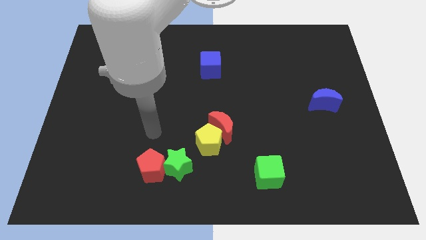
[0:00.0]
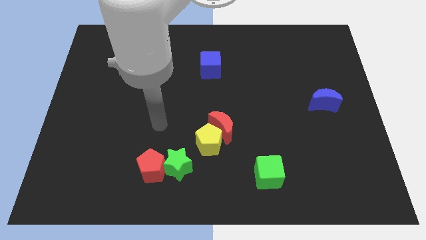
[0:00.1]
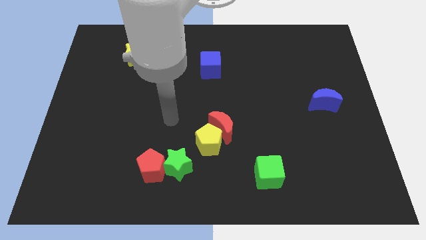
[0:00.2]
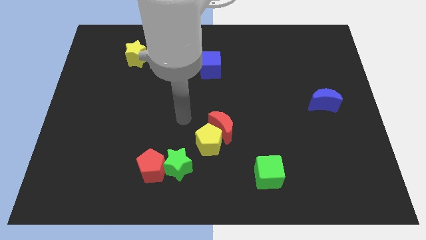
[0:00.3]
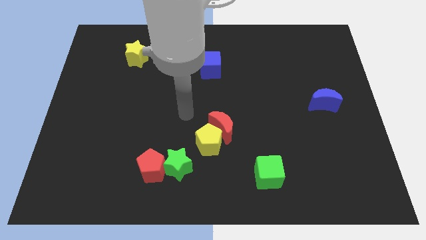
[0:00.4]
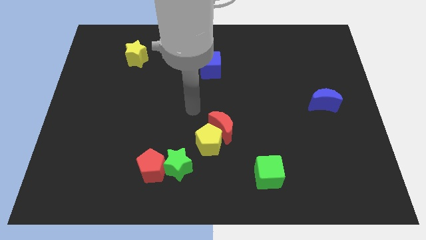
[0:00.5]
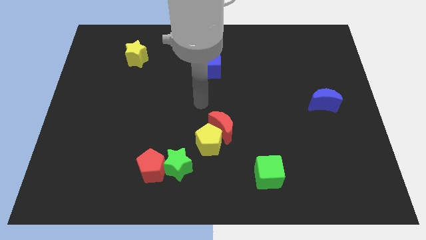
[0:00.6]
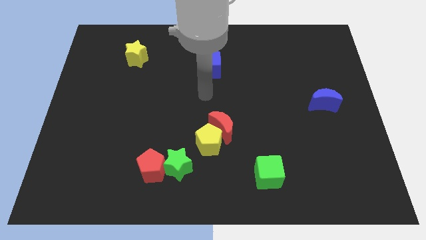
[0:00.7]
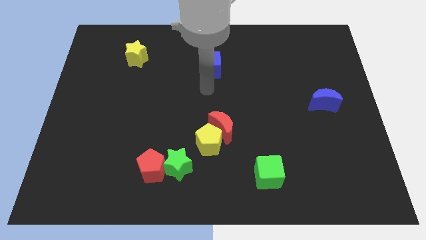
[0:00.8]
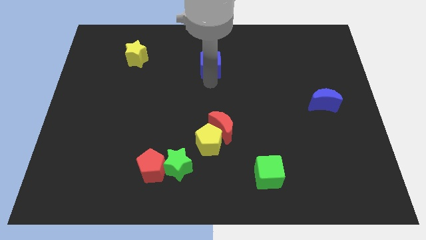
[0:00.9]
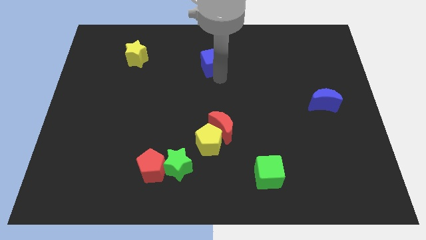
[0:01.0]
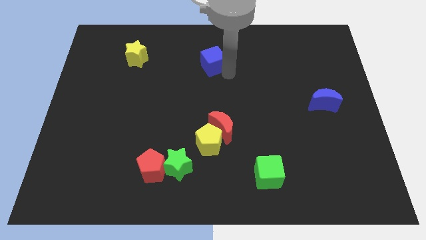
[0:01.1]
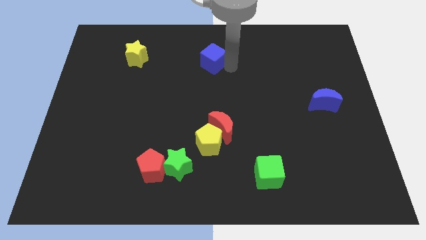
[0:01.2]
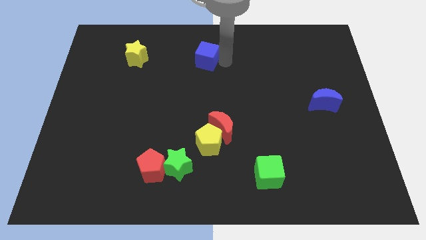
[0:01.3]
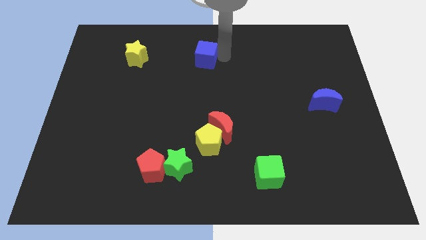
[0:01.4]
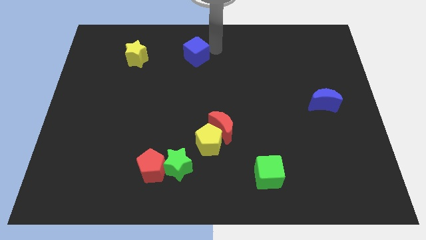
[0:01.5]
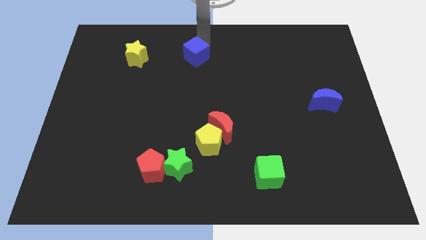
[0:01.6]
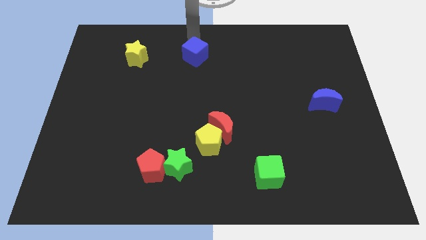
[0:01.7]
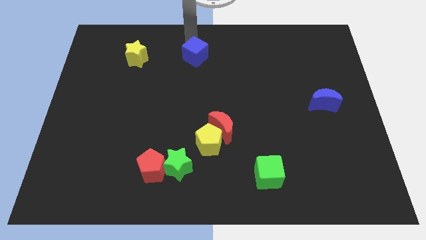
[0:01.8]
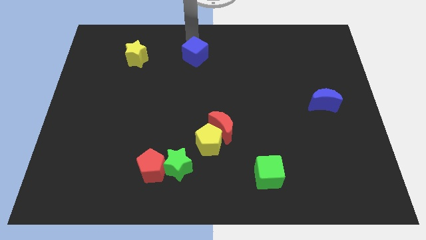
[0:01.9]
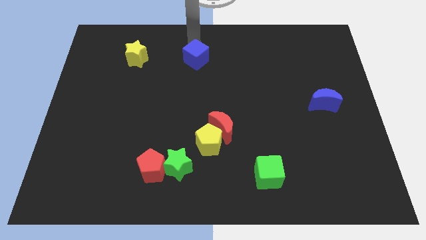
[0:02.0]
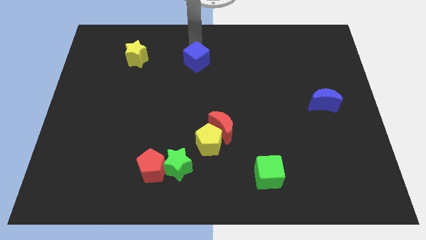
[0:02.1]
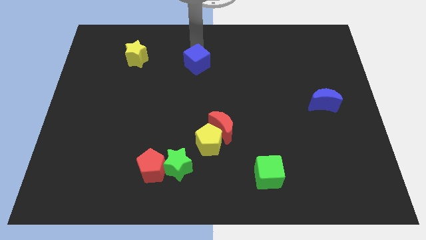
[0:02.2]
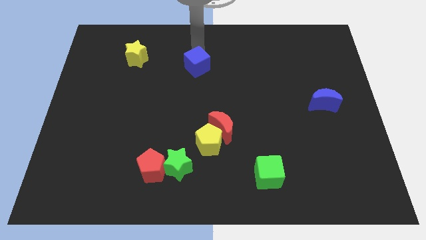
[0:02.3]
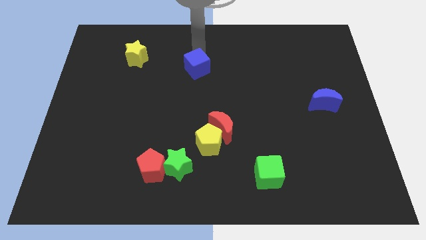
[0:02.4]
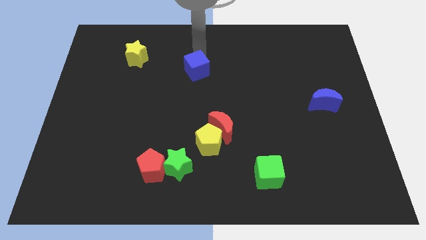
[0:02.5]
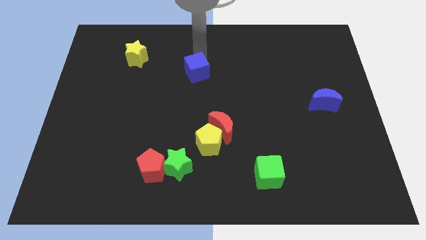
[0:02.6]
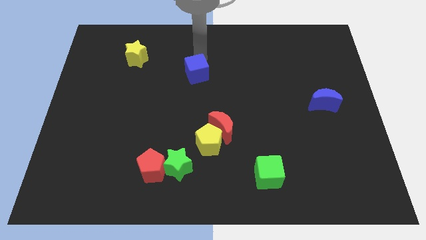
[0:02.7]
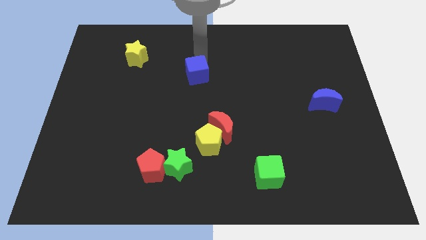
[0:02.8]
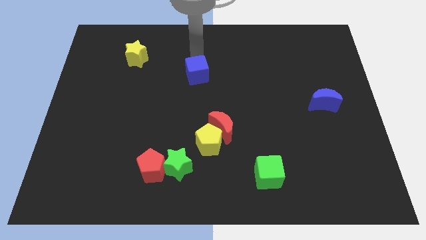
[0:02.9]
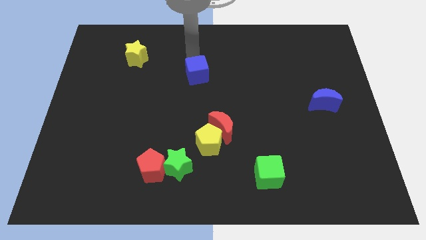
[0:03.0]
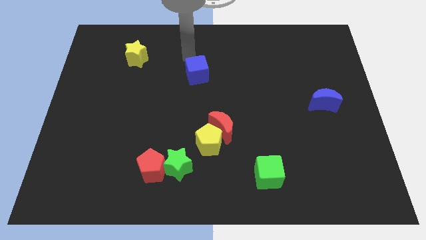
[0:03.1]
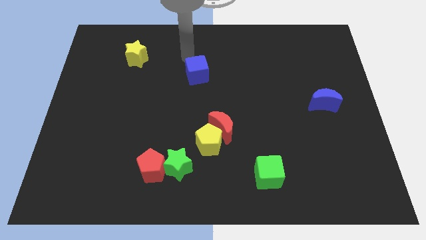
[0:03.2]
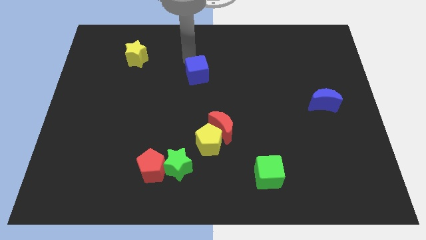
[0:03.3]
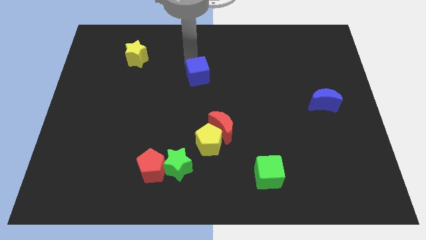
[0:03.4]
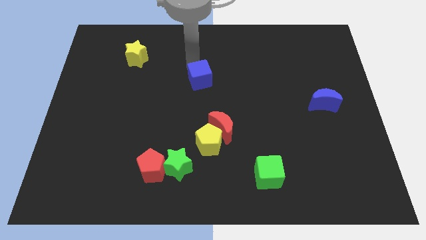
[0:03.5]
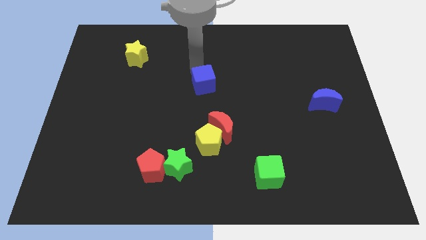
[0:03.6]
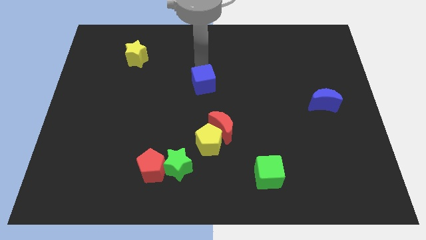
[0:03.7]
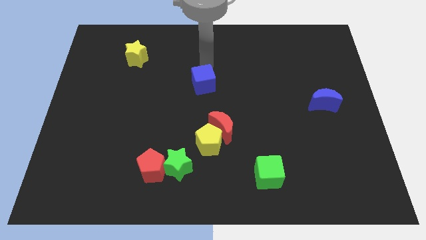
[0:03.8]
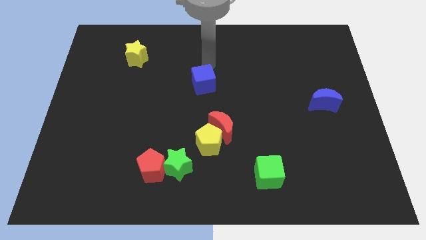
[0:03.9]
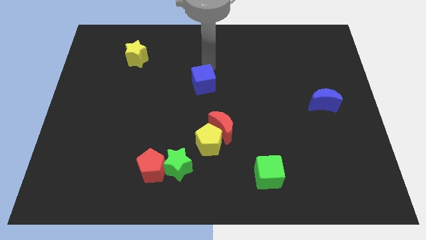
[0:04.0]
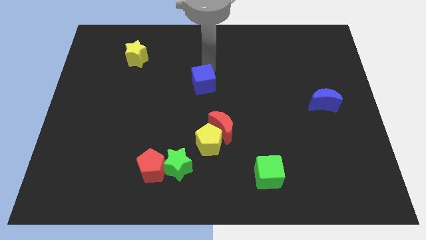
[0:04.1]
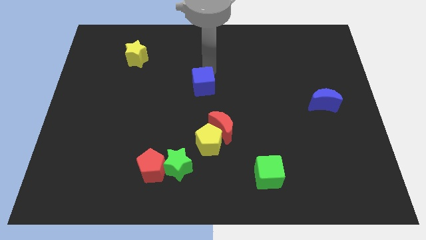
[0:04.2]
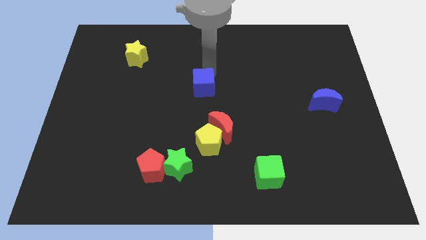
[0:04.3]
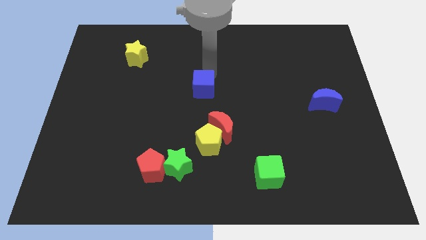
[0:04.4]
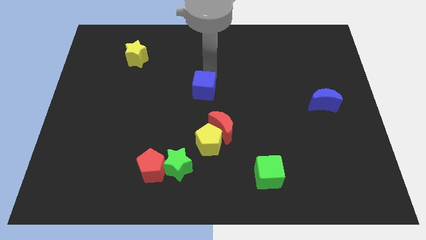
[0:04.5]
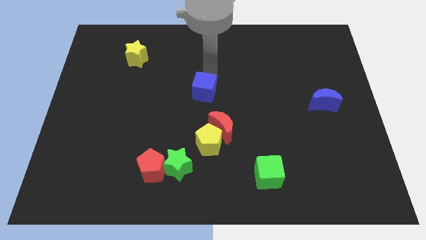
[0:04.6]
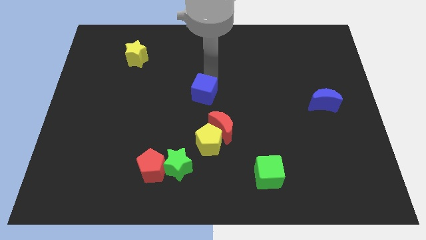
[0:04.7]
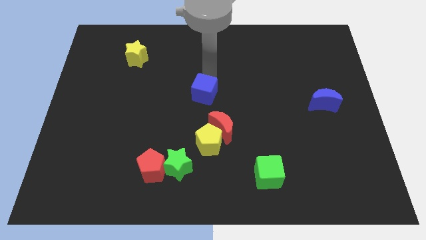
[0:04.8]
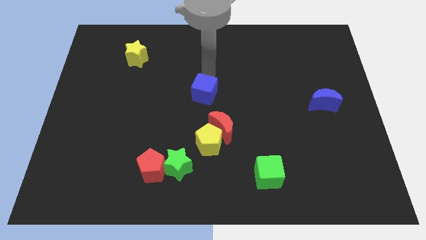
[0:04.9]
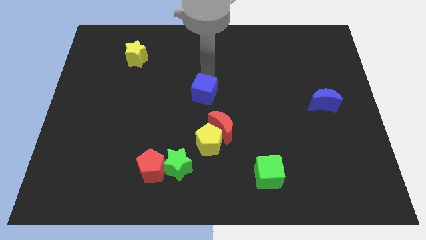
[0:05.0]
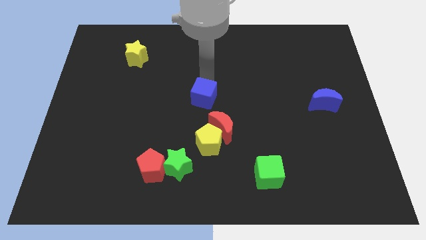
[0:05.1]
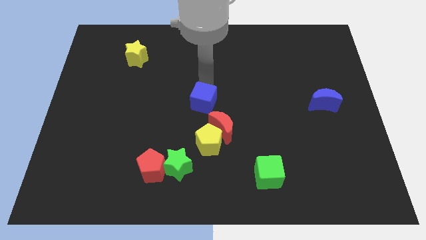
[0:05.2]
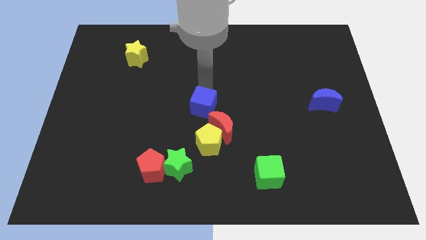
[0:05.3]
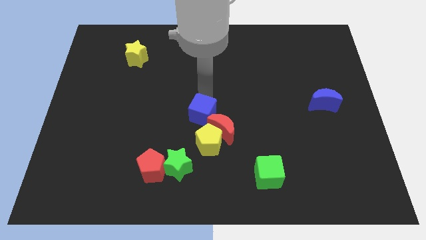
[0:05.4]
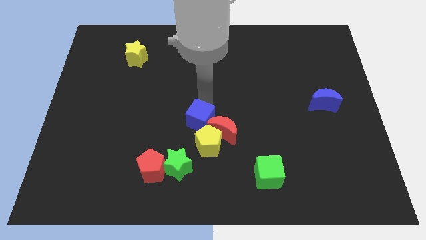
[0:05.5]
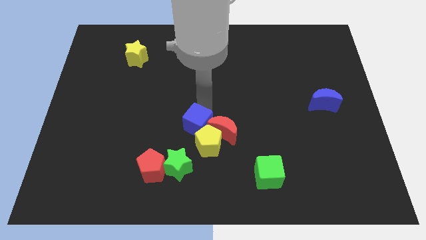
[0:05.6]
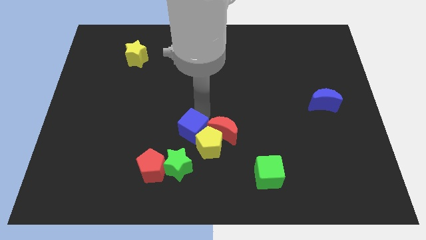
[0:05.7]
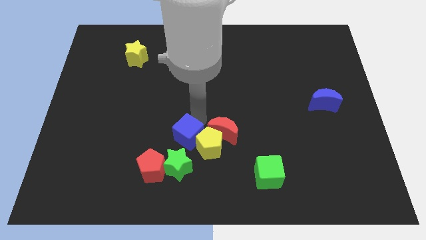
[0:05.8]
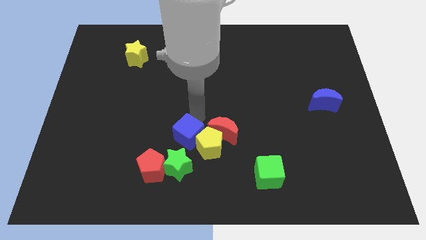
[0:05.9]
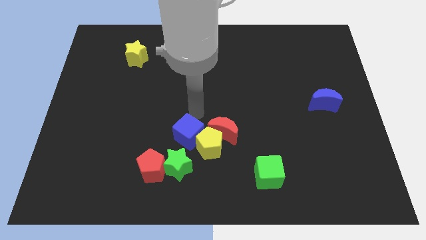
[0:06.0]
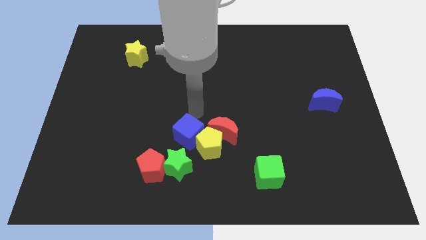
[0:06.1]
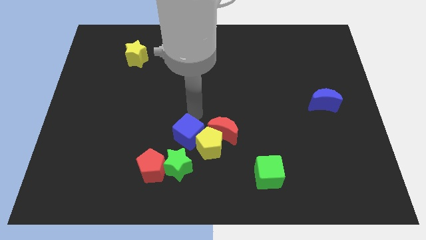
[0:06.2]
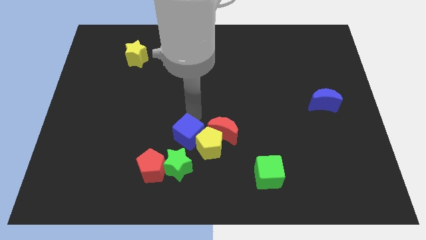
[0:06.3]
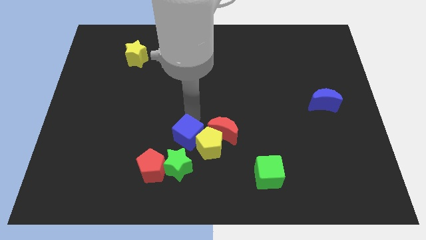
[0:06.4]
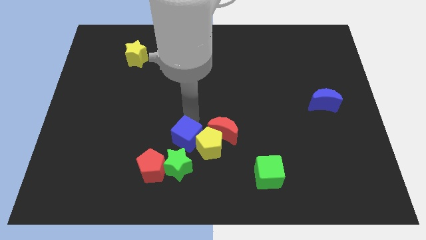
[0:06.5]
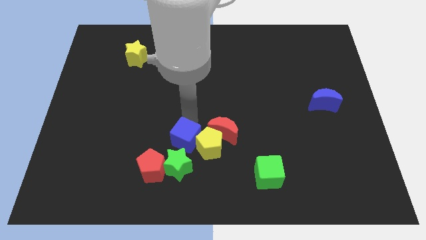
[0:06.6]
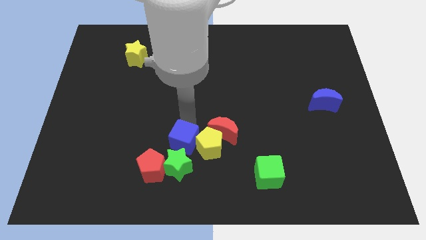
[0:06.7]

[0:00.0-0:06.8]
move the blue cube next to the green star
